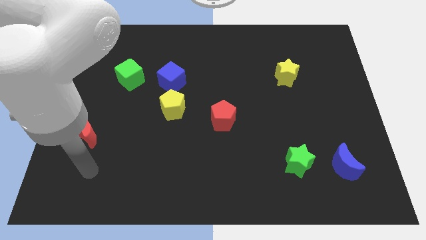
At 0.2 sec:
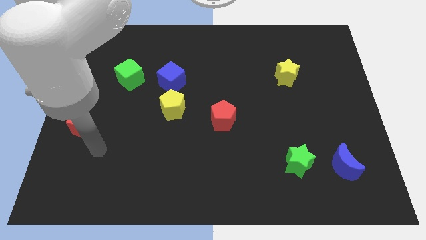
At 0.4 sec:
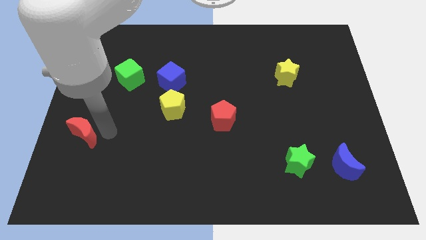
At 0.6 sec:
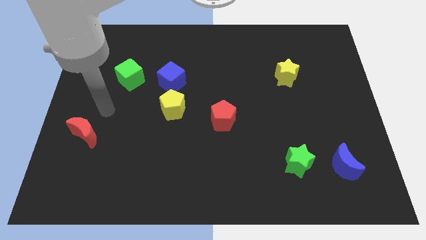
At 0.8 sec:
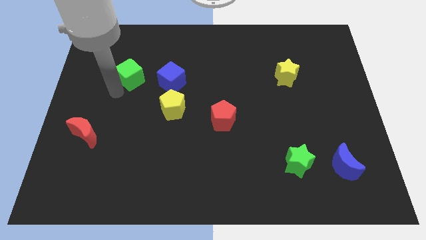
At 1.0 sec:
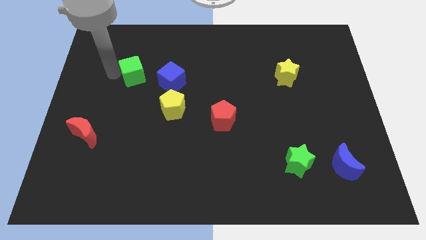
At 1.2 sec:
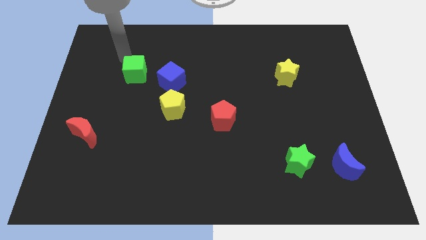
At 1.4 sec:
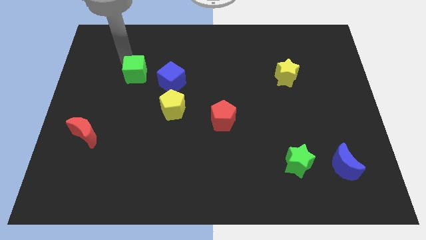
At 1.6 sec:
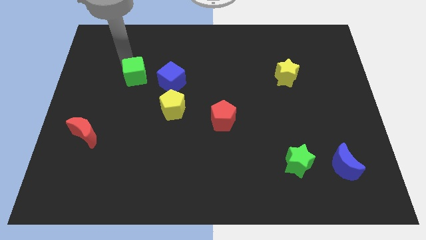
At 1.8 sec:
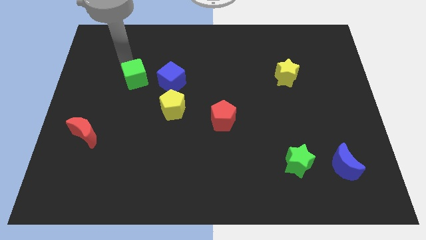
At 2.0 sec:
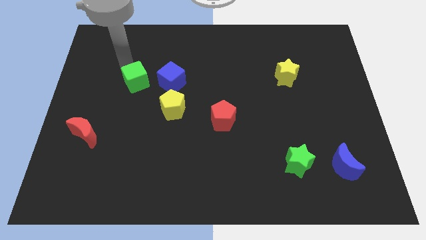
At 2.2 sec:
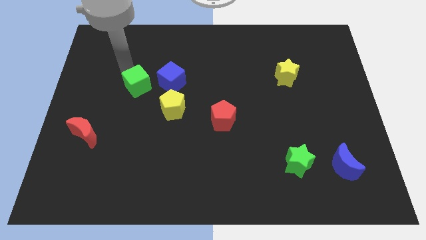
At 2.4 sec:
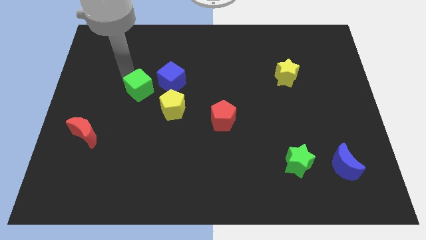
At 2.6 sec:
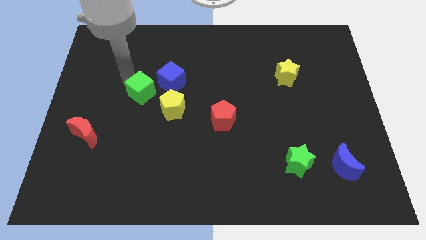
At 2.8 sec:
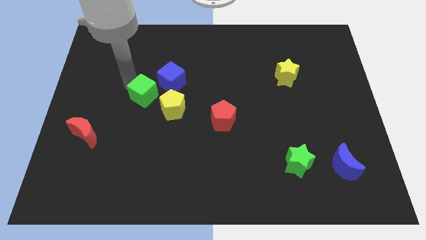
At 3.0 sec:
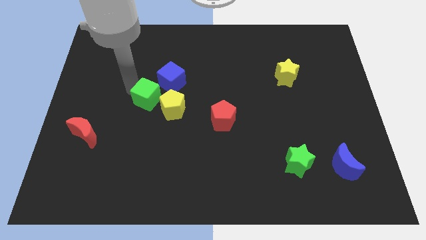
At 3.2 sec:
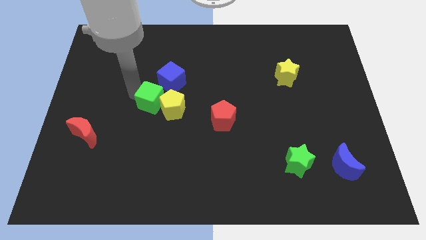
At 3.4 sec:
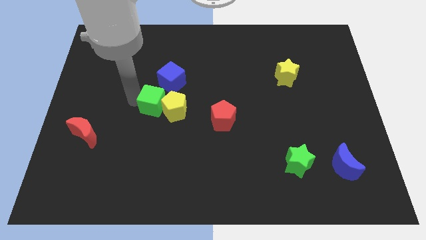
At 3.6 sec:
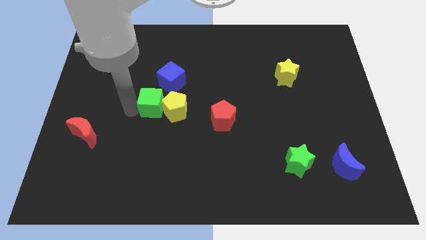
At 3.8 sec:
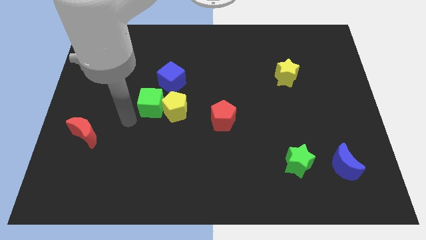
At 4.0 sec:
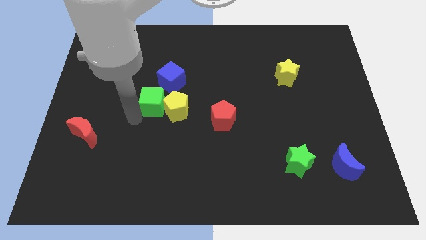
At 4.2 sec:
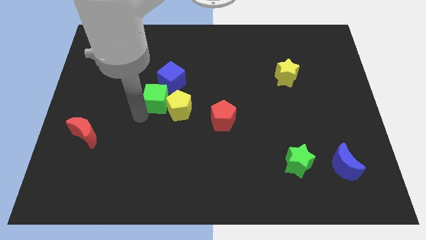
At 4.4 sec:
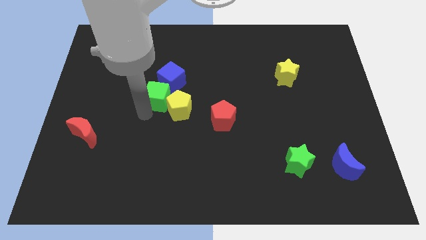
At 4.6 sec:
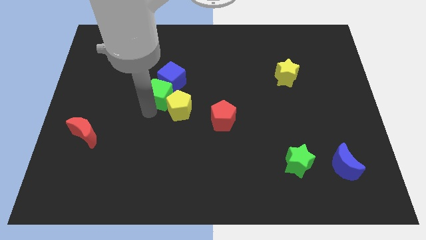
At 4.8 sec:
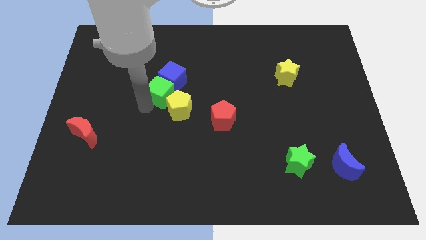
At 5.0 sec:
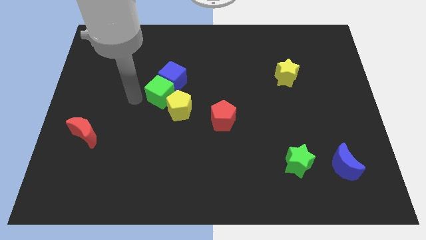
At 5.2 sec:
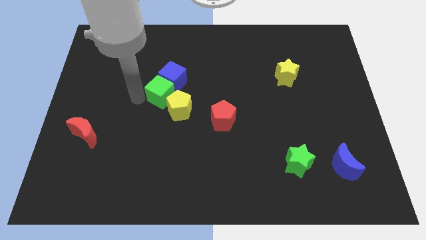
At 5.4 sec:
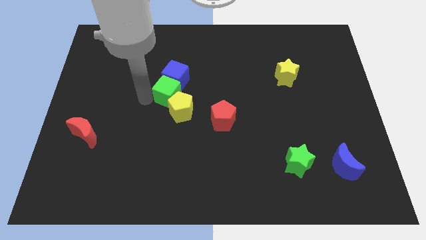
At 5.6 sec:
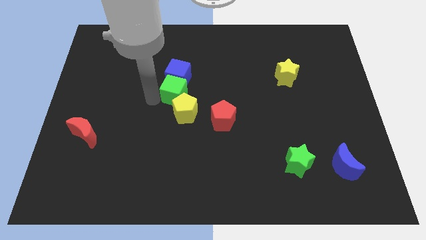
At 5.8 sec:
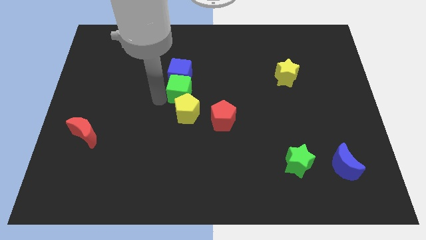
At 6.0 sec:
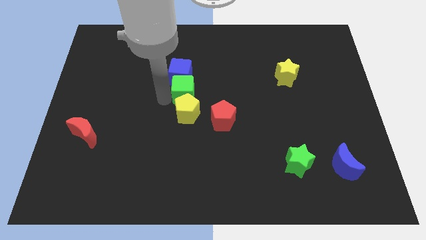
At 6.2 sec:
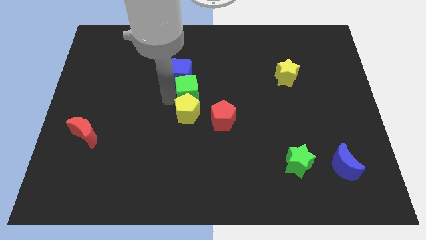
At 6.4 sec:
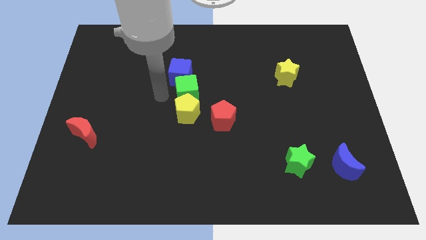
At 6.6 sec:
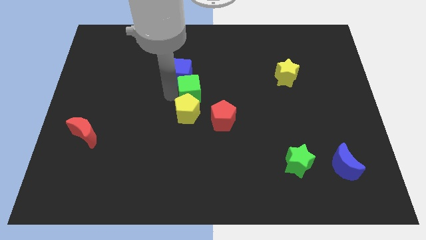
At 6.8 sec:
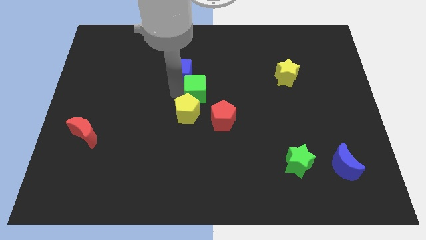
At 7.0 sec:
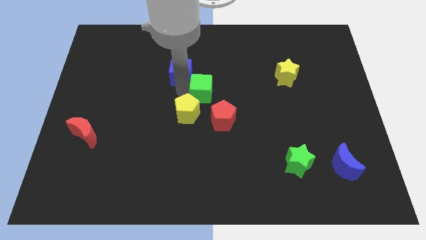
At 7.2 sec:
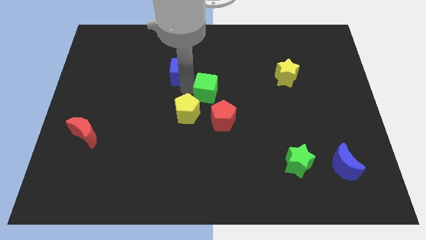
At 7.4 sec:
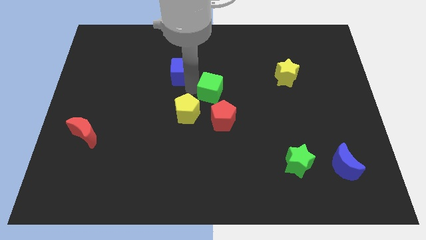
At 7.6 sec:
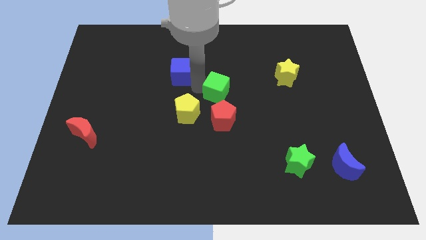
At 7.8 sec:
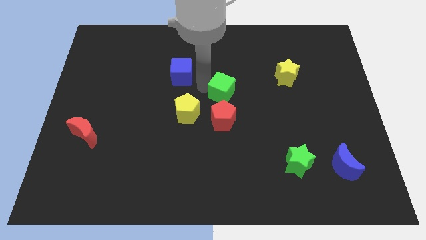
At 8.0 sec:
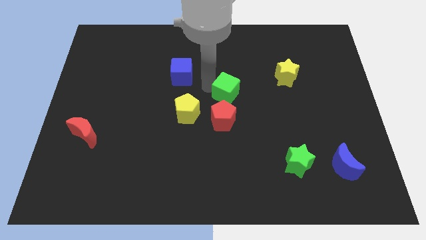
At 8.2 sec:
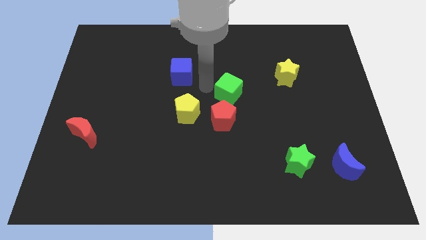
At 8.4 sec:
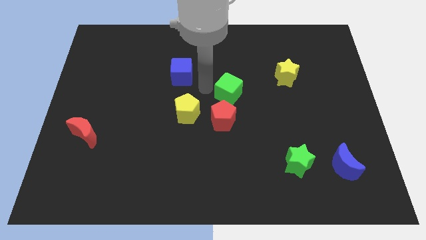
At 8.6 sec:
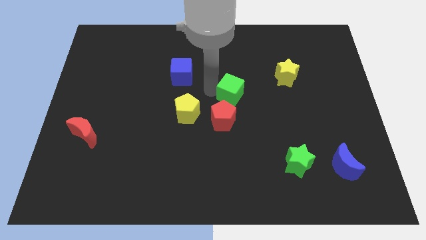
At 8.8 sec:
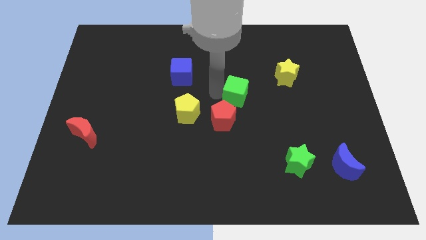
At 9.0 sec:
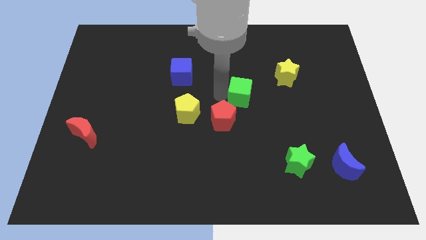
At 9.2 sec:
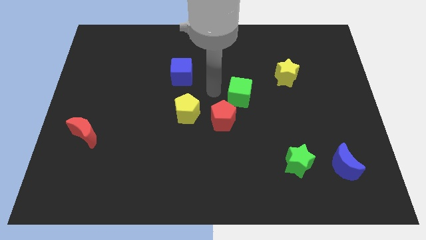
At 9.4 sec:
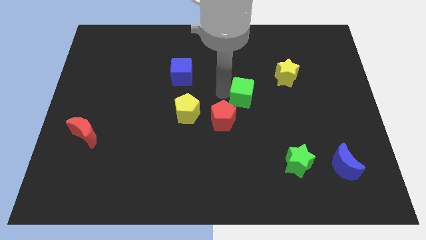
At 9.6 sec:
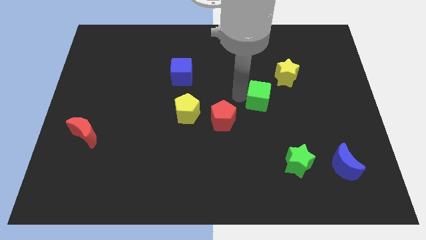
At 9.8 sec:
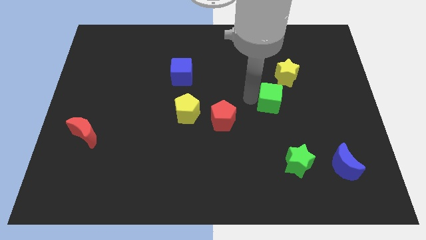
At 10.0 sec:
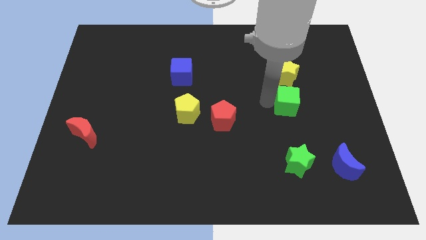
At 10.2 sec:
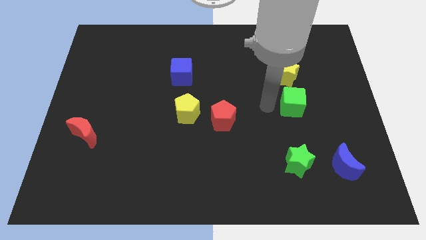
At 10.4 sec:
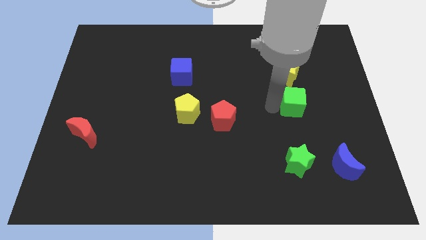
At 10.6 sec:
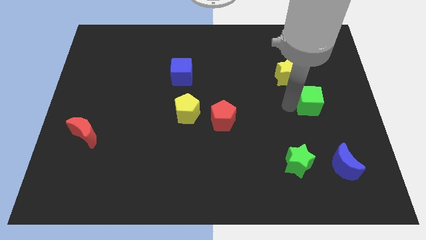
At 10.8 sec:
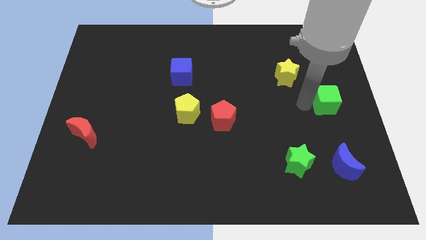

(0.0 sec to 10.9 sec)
push the green cube to the right side of the board
